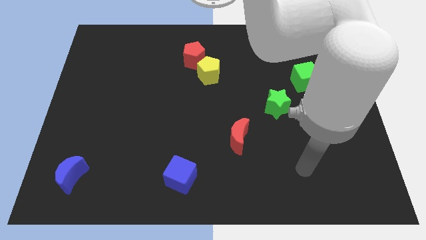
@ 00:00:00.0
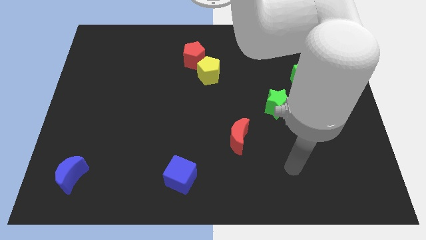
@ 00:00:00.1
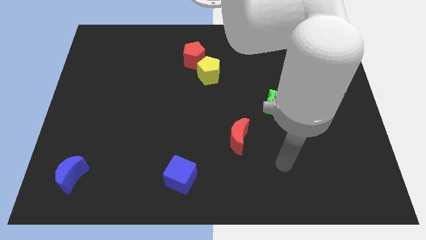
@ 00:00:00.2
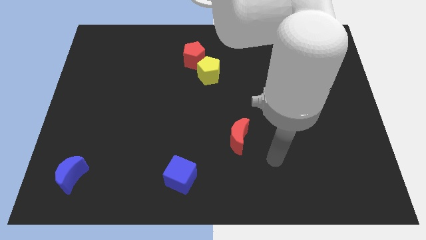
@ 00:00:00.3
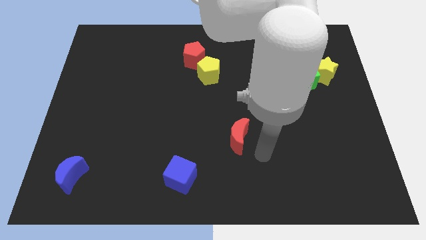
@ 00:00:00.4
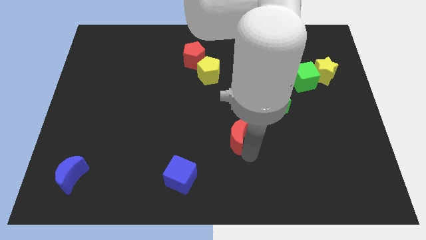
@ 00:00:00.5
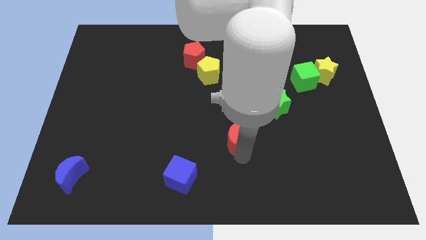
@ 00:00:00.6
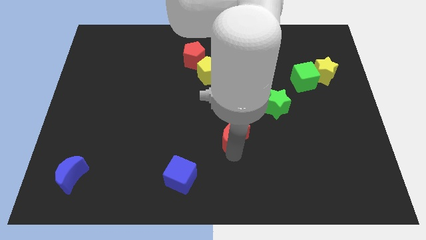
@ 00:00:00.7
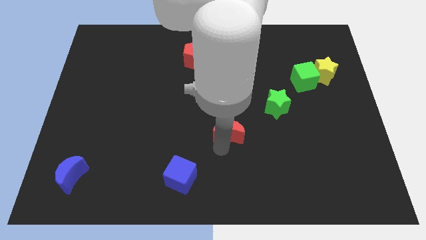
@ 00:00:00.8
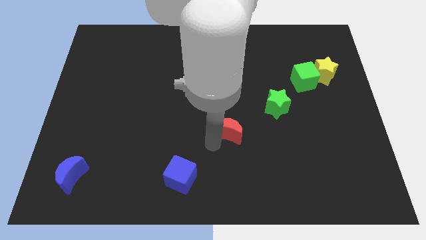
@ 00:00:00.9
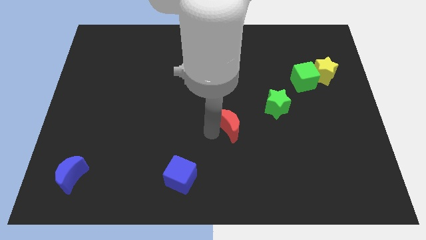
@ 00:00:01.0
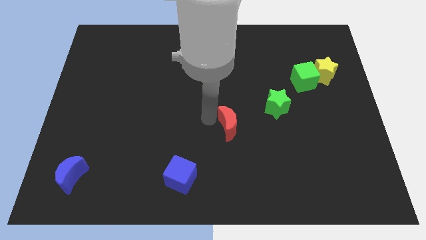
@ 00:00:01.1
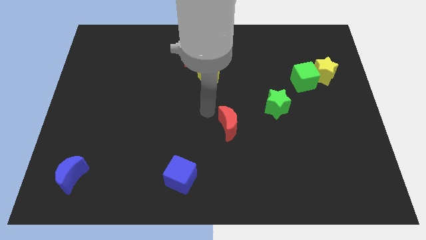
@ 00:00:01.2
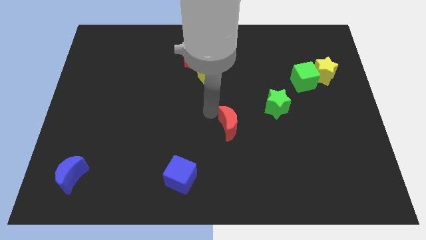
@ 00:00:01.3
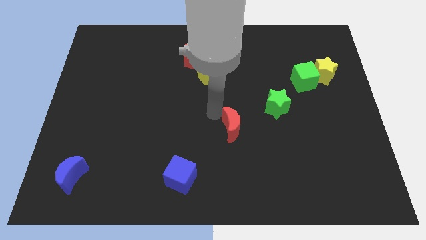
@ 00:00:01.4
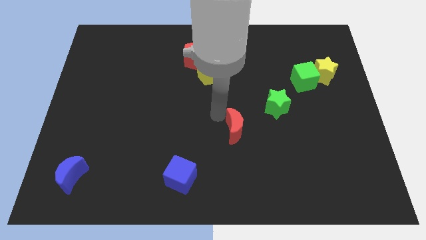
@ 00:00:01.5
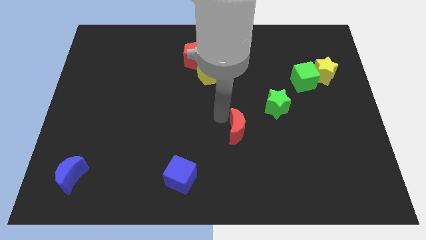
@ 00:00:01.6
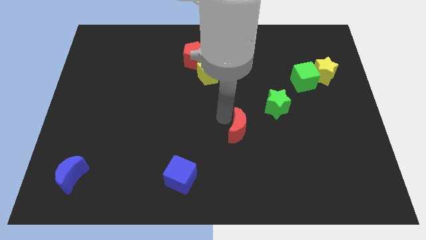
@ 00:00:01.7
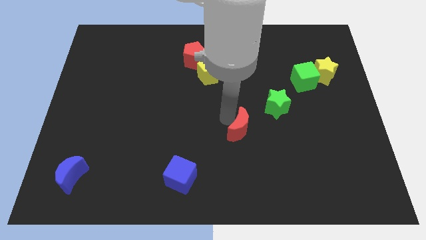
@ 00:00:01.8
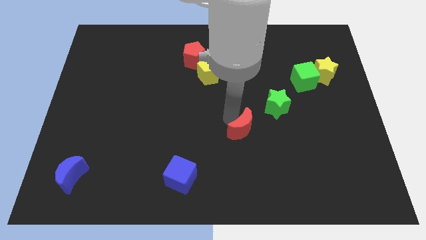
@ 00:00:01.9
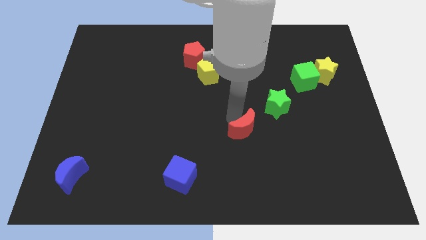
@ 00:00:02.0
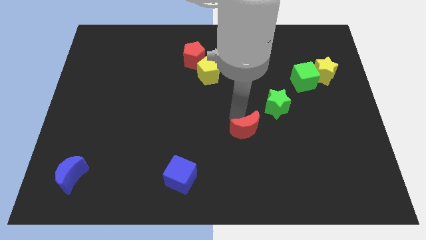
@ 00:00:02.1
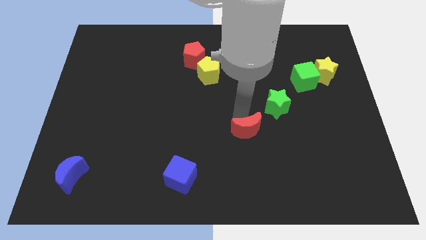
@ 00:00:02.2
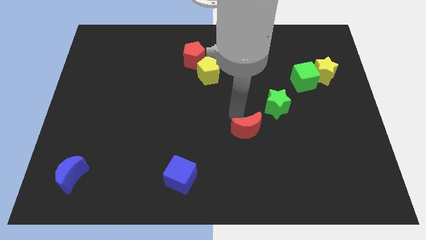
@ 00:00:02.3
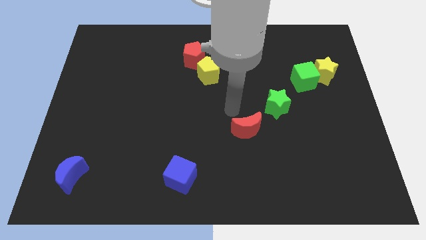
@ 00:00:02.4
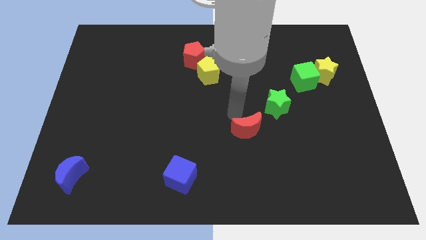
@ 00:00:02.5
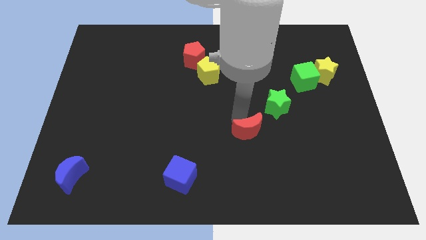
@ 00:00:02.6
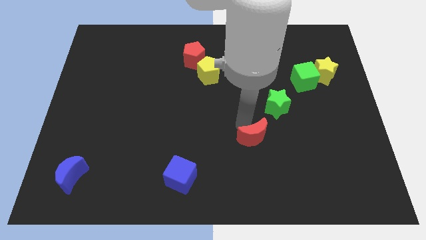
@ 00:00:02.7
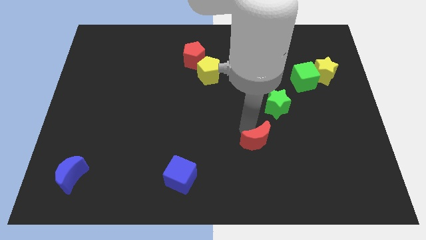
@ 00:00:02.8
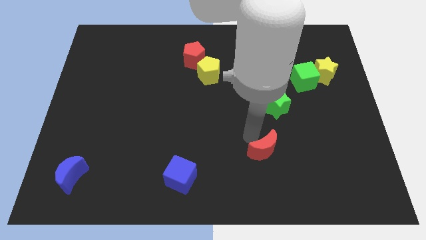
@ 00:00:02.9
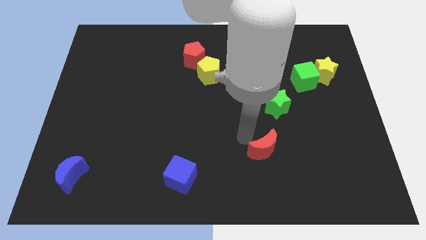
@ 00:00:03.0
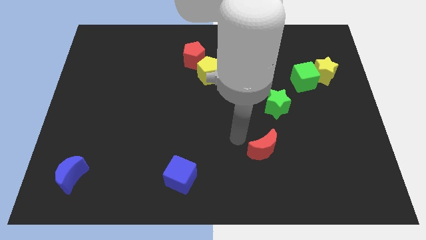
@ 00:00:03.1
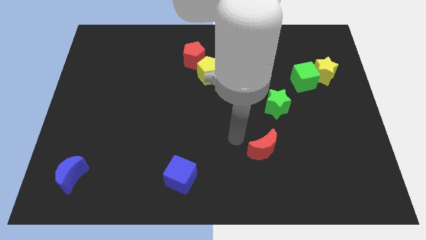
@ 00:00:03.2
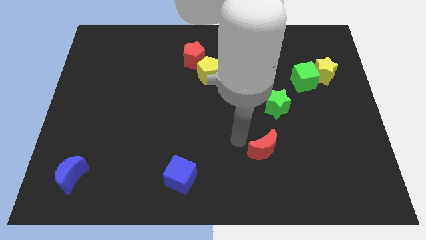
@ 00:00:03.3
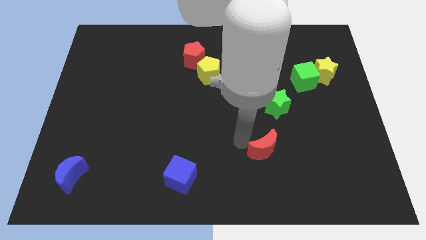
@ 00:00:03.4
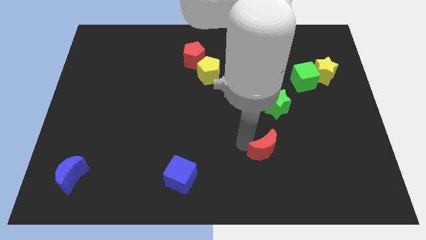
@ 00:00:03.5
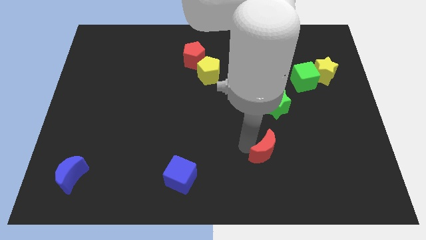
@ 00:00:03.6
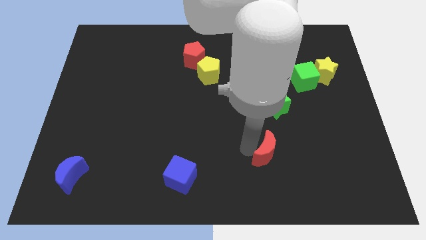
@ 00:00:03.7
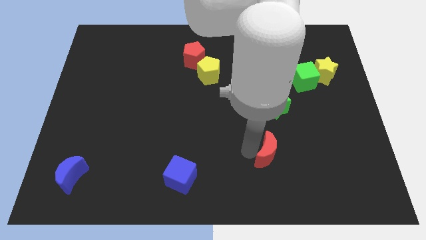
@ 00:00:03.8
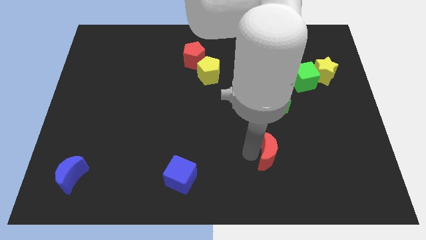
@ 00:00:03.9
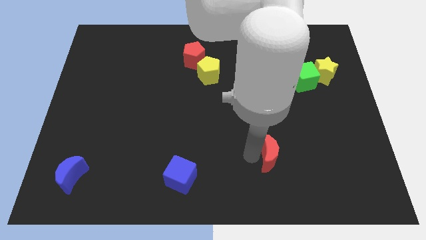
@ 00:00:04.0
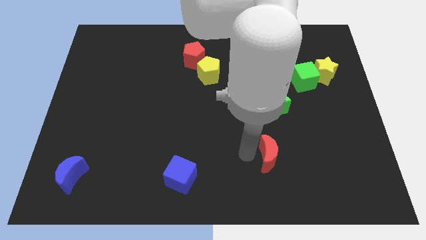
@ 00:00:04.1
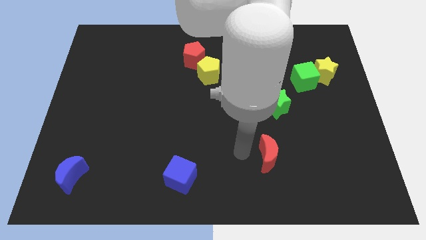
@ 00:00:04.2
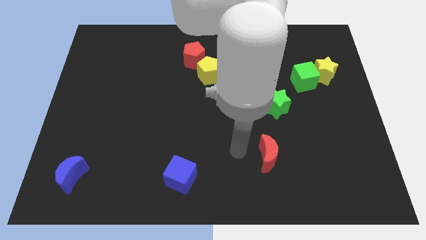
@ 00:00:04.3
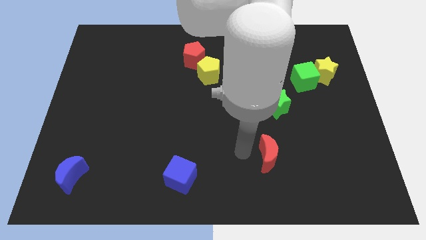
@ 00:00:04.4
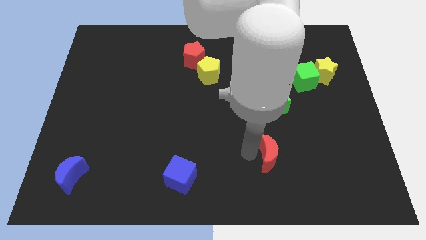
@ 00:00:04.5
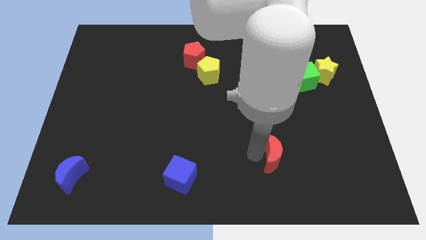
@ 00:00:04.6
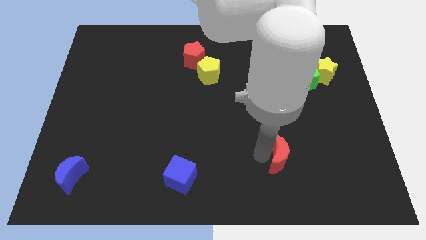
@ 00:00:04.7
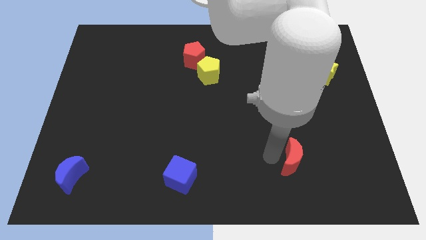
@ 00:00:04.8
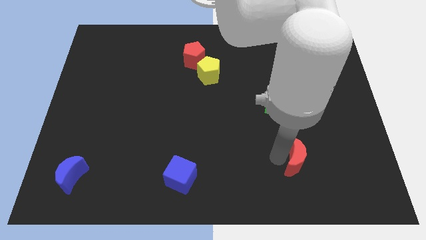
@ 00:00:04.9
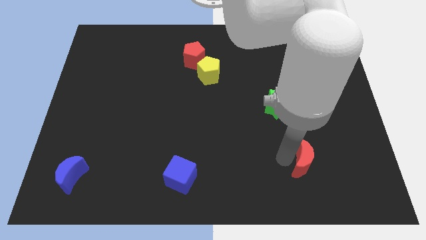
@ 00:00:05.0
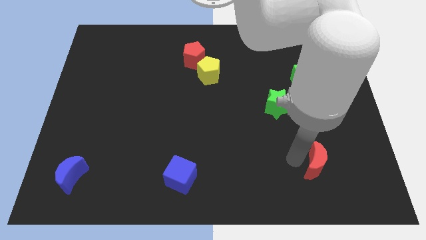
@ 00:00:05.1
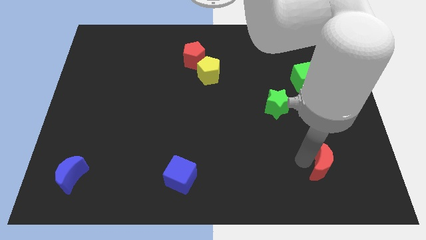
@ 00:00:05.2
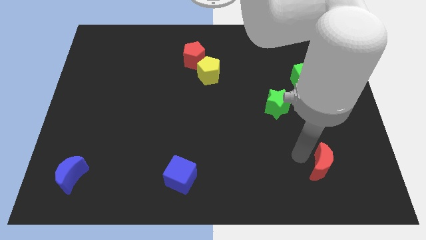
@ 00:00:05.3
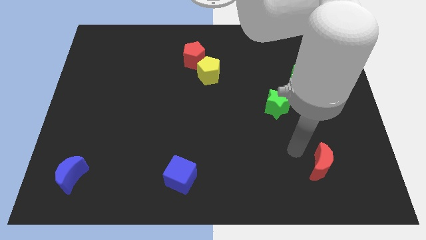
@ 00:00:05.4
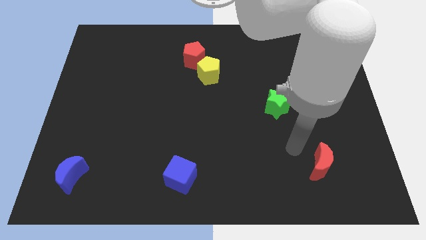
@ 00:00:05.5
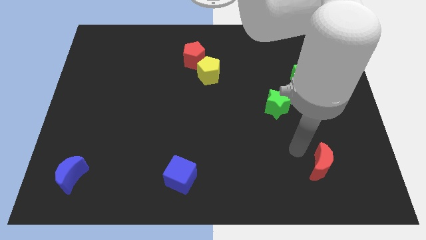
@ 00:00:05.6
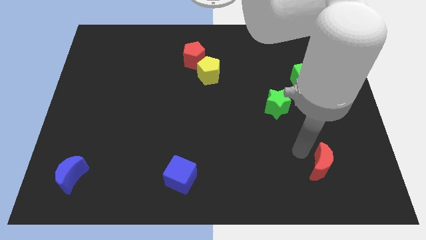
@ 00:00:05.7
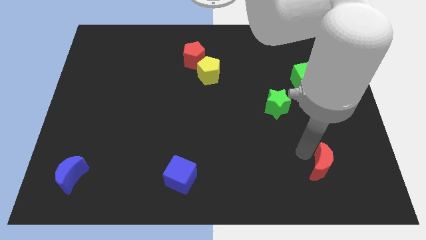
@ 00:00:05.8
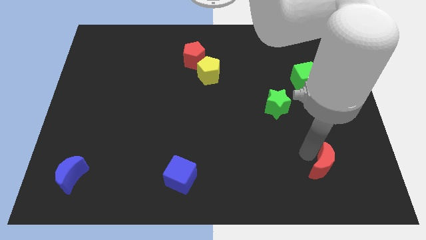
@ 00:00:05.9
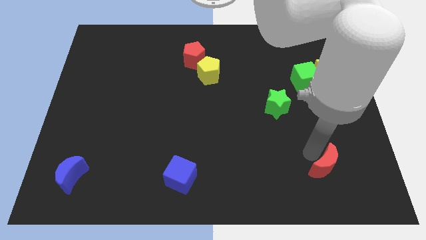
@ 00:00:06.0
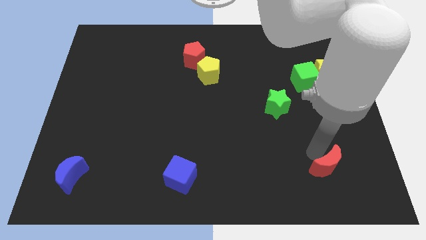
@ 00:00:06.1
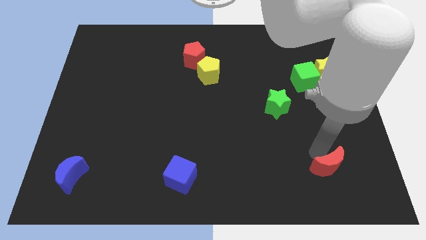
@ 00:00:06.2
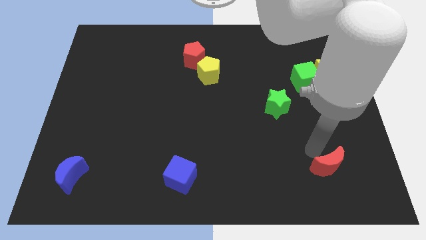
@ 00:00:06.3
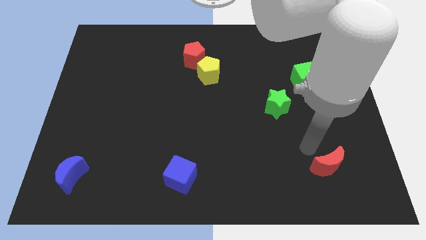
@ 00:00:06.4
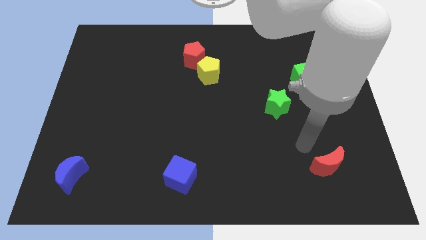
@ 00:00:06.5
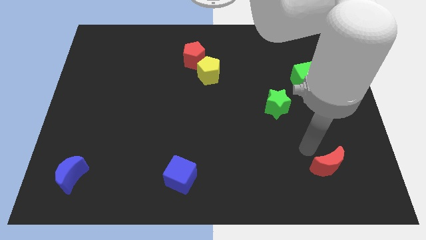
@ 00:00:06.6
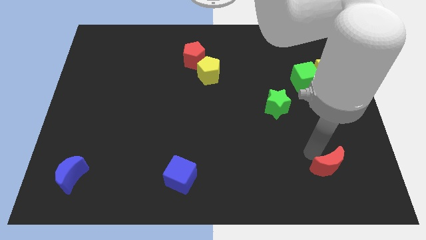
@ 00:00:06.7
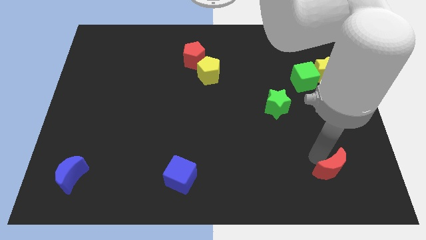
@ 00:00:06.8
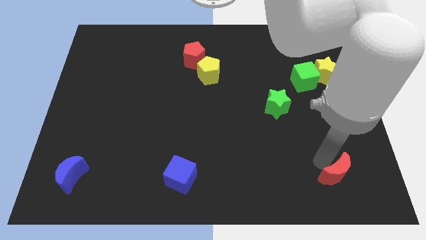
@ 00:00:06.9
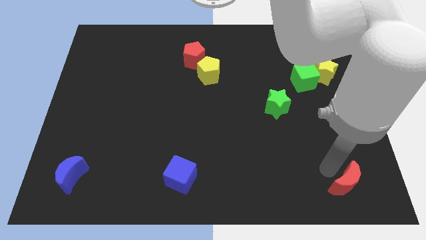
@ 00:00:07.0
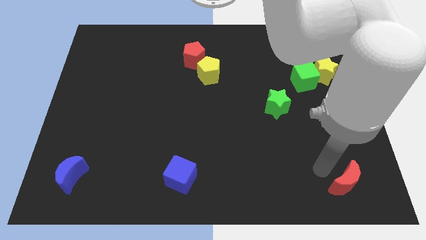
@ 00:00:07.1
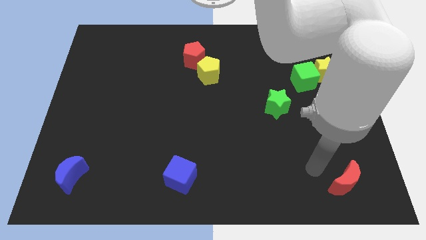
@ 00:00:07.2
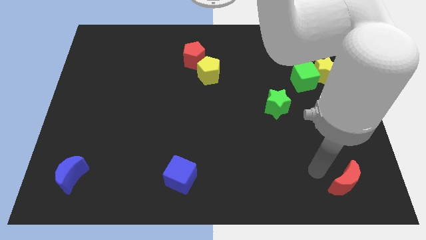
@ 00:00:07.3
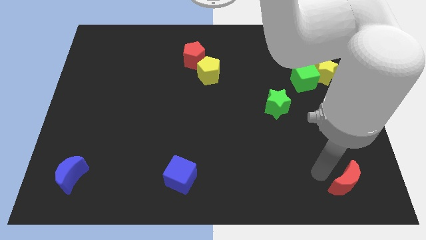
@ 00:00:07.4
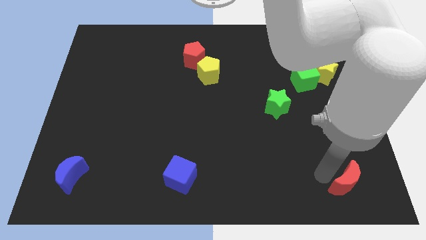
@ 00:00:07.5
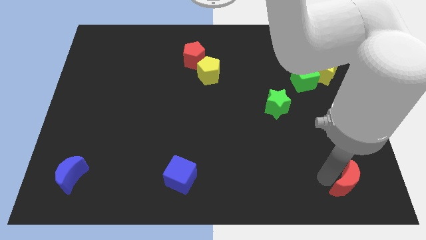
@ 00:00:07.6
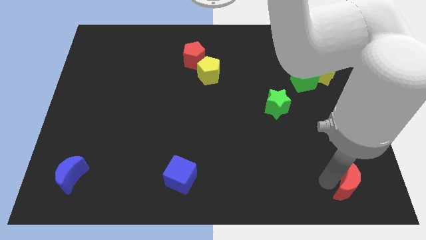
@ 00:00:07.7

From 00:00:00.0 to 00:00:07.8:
put the red moon to the bottom right of the board
